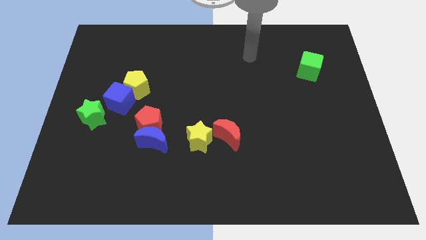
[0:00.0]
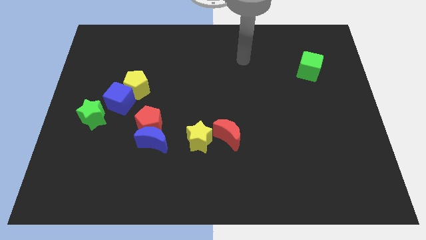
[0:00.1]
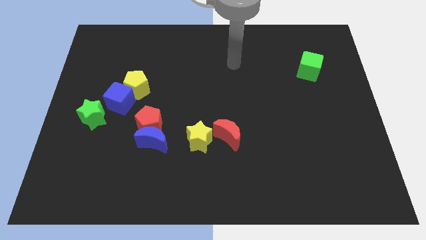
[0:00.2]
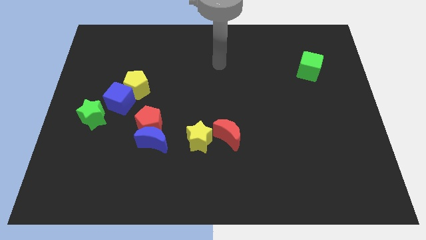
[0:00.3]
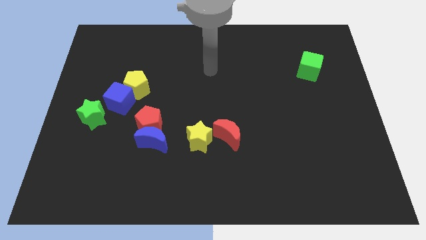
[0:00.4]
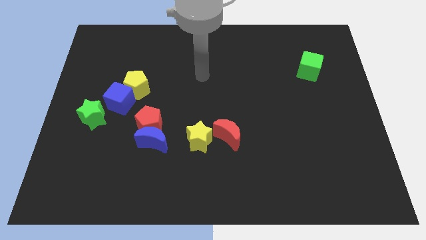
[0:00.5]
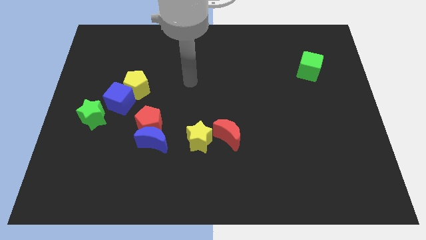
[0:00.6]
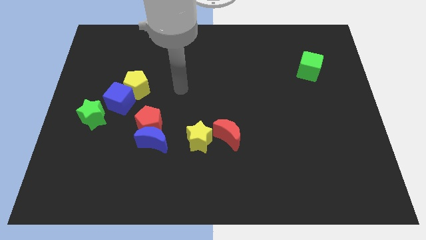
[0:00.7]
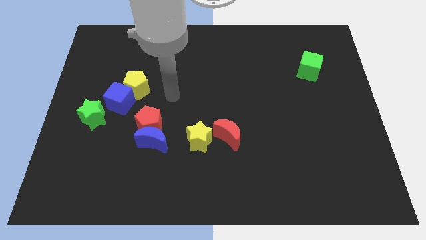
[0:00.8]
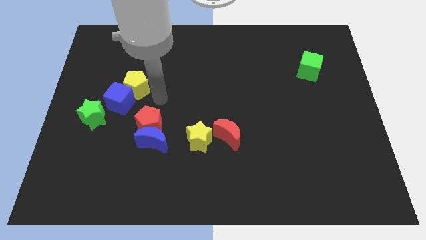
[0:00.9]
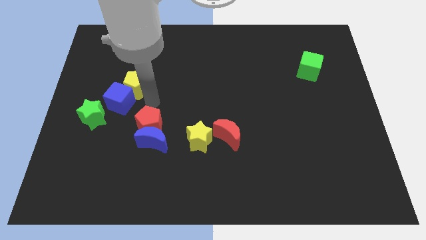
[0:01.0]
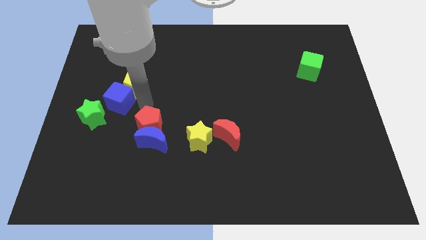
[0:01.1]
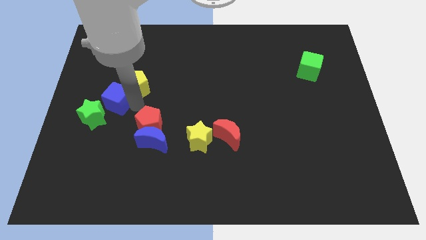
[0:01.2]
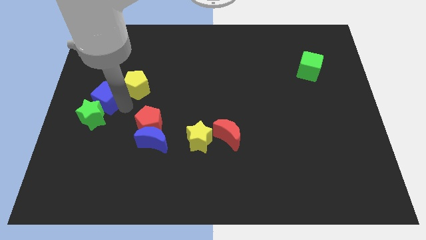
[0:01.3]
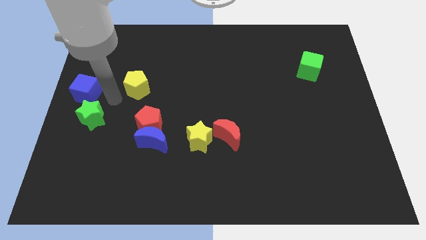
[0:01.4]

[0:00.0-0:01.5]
separate the yellow pentagon from the blue cube

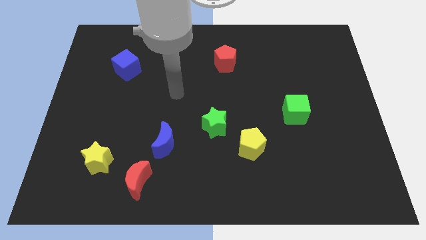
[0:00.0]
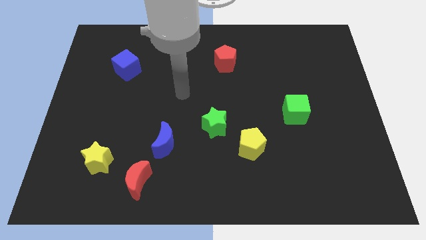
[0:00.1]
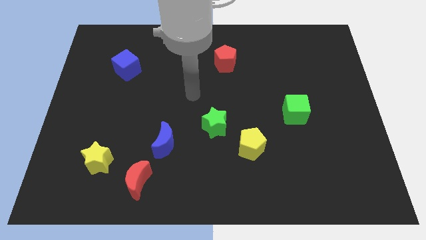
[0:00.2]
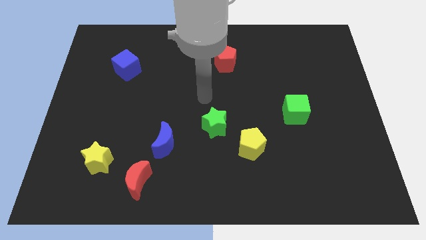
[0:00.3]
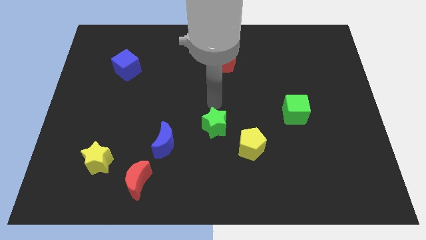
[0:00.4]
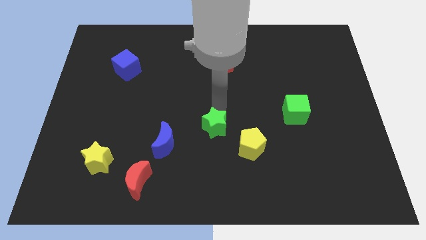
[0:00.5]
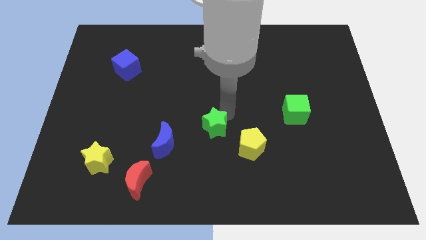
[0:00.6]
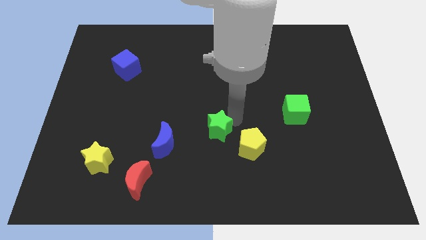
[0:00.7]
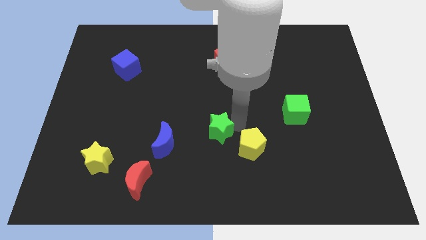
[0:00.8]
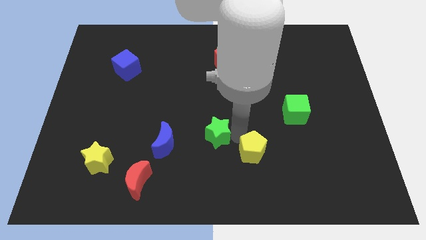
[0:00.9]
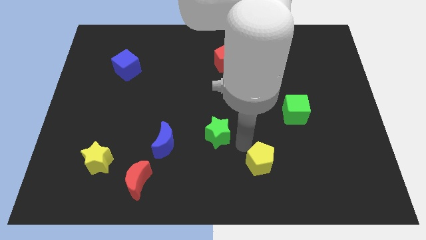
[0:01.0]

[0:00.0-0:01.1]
separate the green star from the yellow pentagon

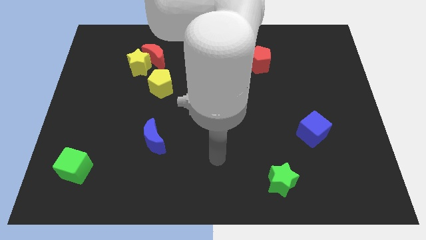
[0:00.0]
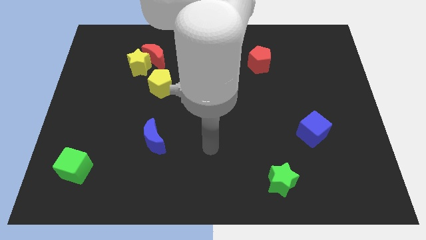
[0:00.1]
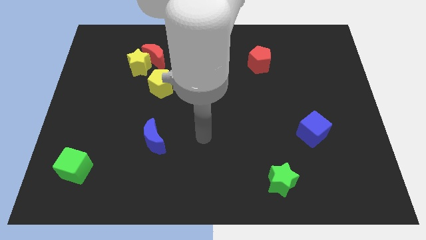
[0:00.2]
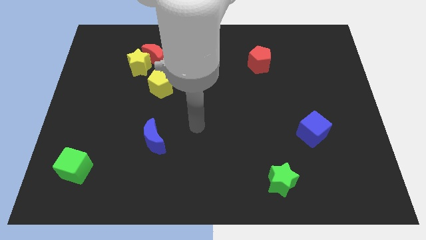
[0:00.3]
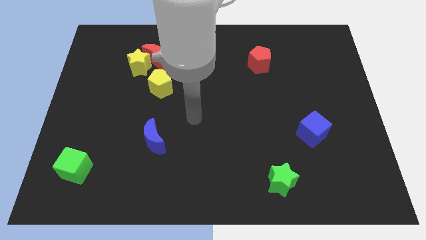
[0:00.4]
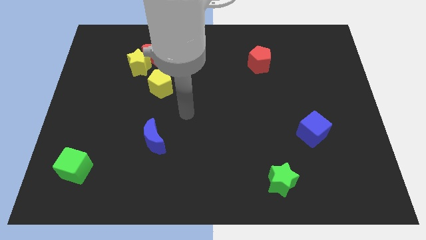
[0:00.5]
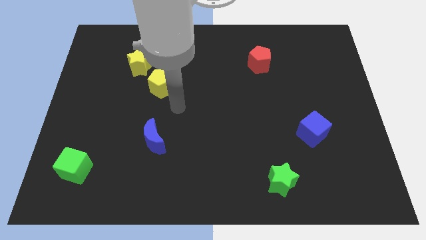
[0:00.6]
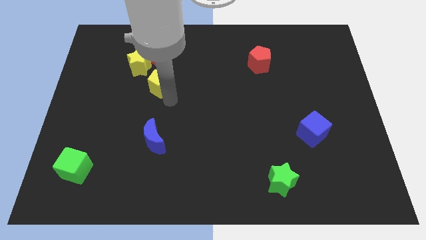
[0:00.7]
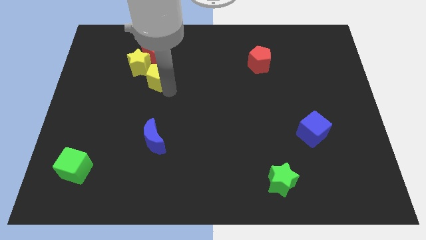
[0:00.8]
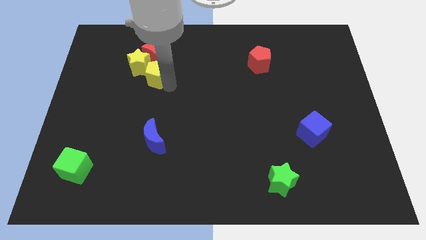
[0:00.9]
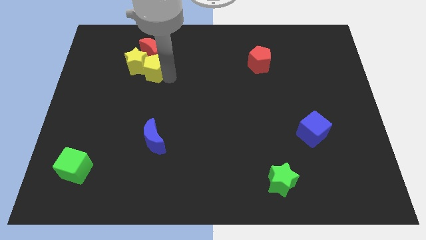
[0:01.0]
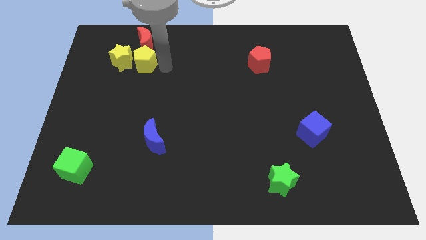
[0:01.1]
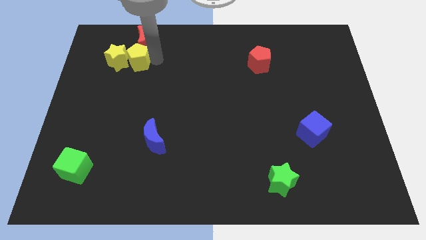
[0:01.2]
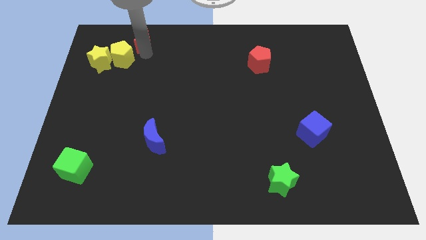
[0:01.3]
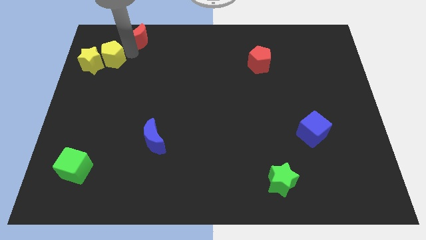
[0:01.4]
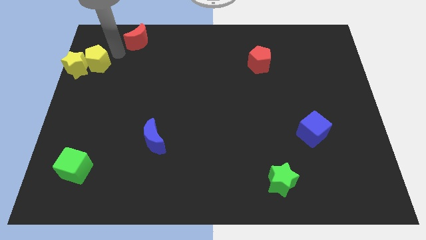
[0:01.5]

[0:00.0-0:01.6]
pull the yellow star apart from the red moon and yellow pentagon

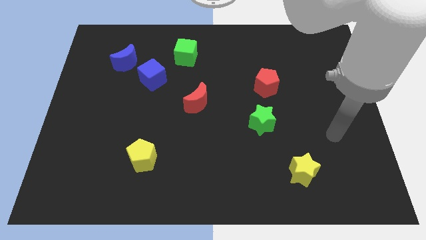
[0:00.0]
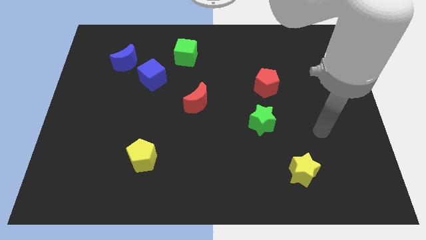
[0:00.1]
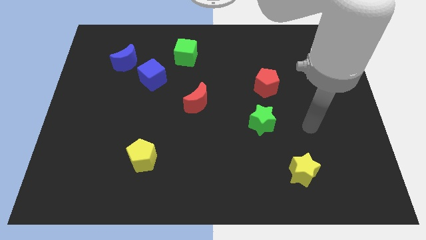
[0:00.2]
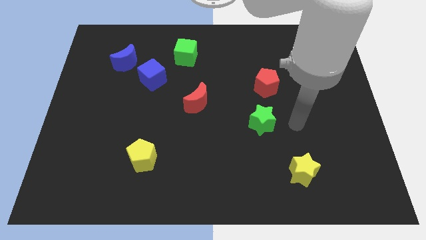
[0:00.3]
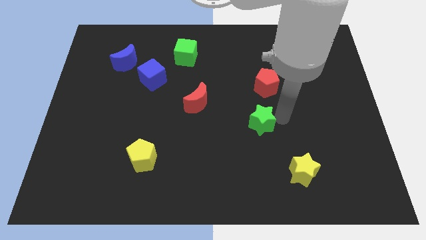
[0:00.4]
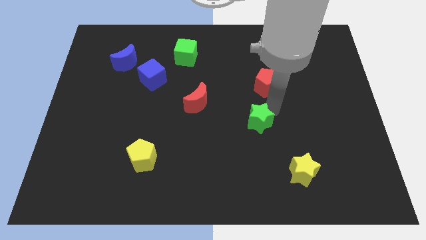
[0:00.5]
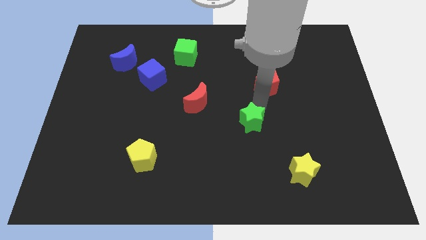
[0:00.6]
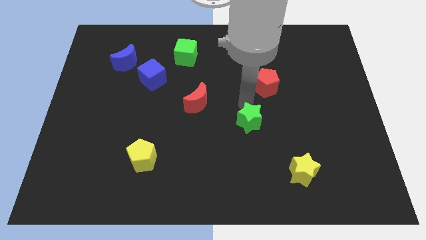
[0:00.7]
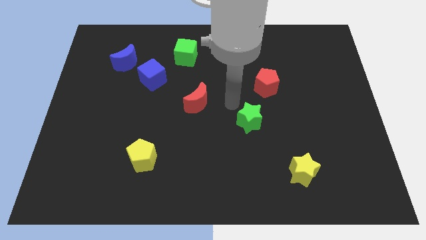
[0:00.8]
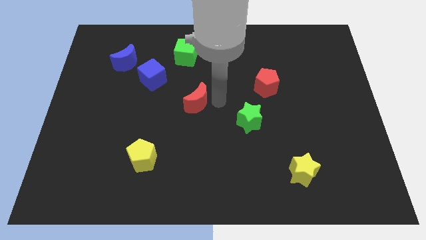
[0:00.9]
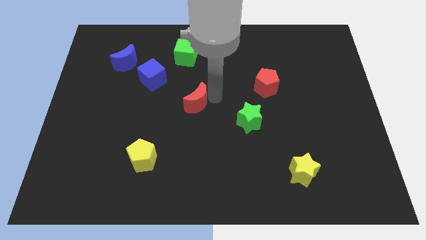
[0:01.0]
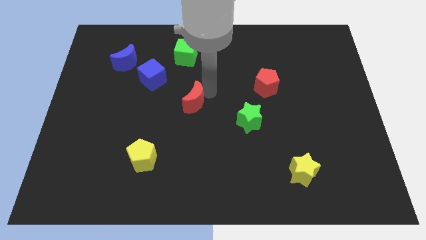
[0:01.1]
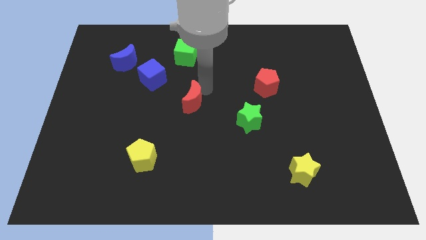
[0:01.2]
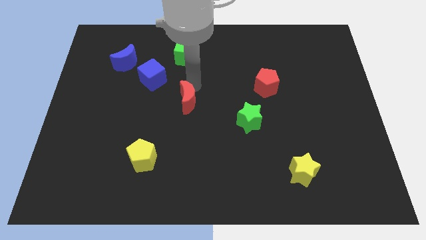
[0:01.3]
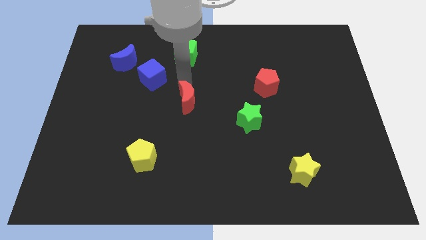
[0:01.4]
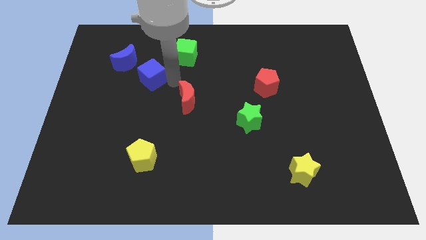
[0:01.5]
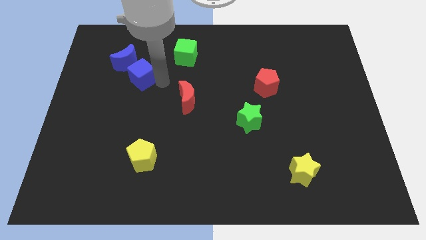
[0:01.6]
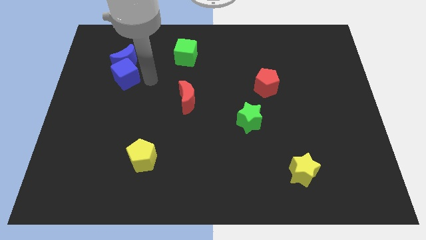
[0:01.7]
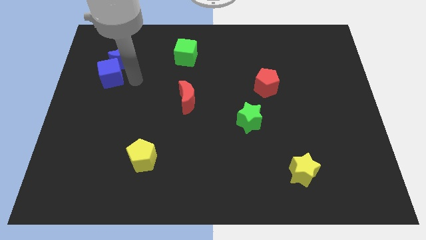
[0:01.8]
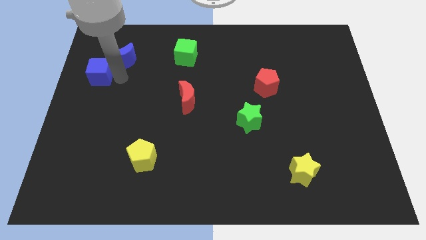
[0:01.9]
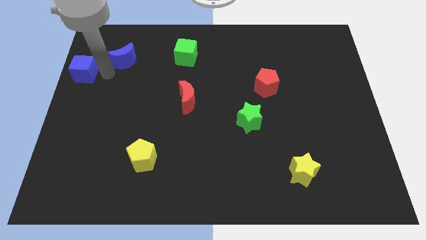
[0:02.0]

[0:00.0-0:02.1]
move the blue moon away from the blue cube

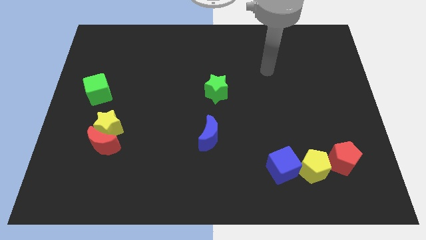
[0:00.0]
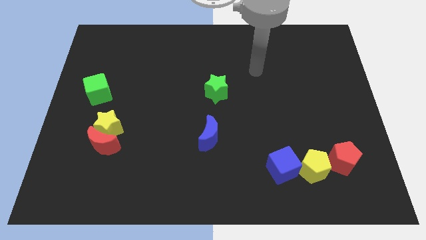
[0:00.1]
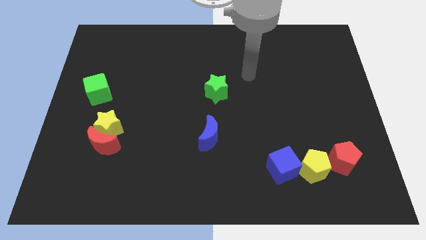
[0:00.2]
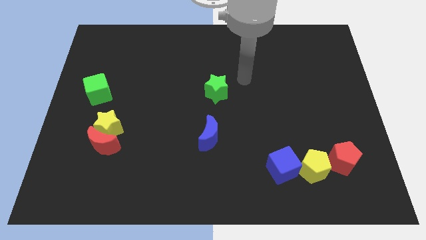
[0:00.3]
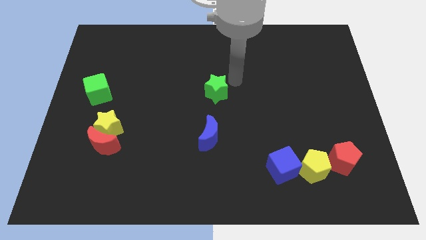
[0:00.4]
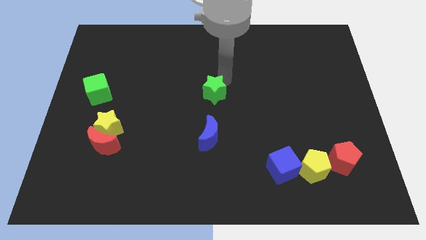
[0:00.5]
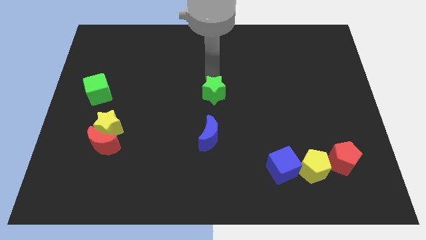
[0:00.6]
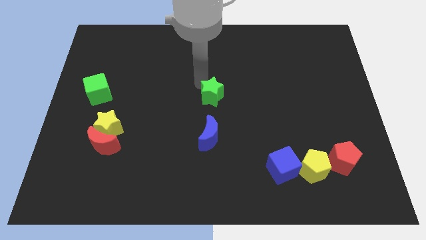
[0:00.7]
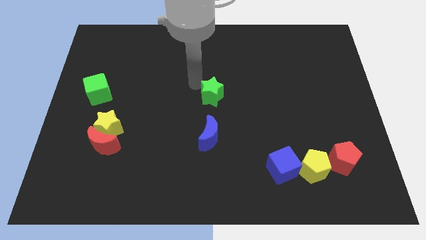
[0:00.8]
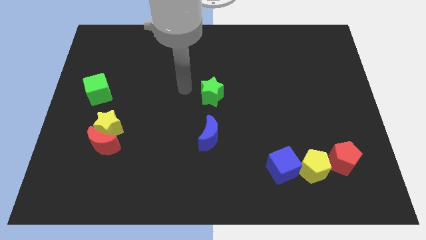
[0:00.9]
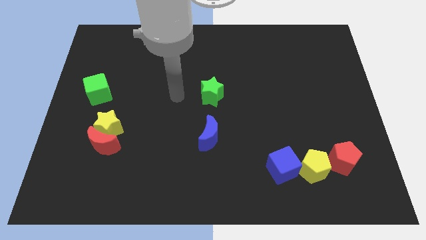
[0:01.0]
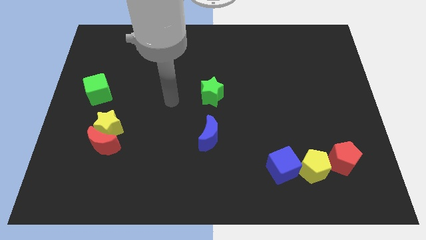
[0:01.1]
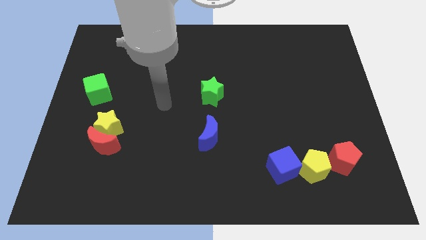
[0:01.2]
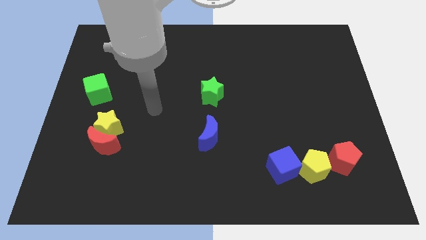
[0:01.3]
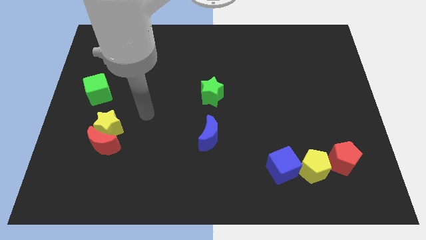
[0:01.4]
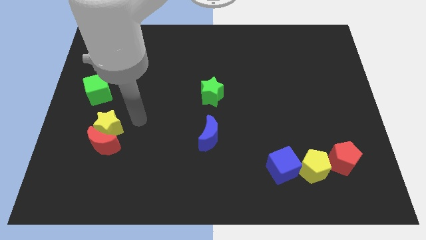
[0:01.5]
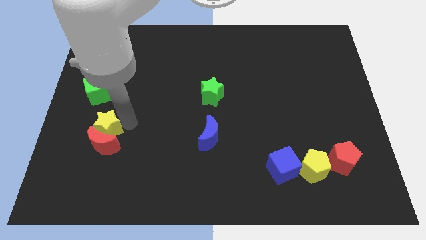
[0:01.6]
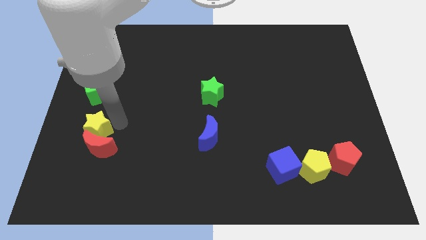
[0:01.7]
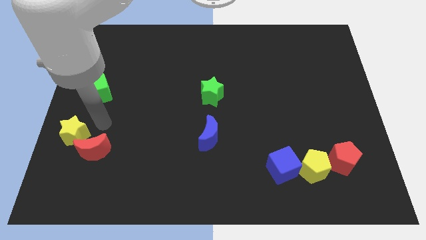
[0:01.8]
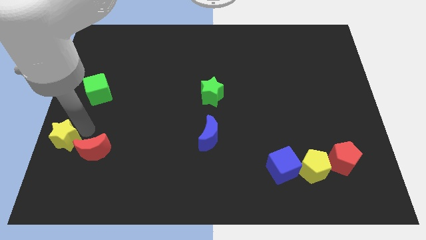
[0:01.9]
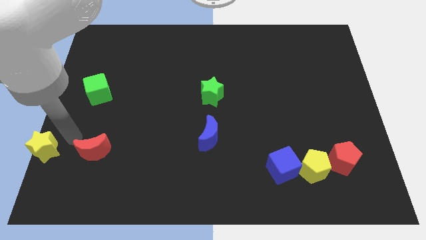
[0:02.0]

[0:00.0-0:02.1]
move the red moon away from the yellow star

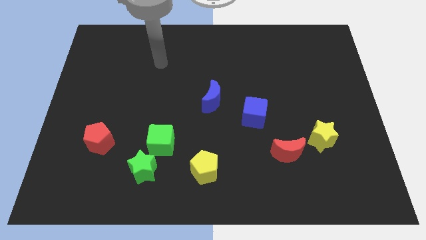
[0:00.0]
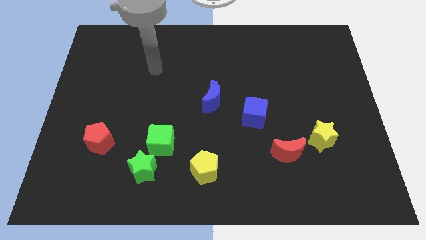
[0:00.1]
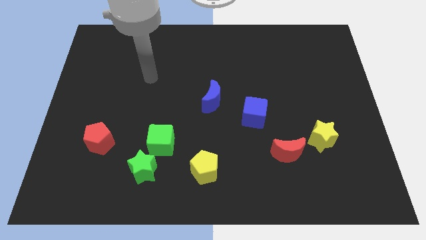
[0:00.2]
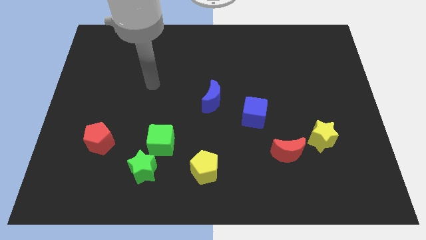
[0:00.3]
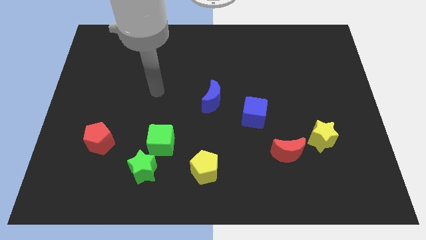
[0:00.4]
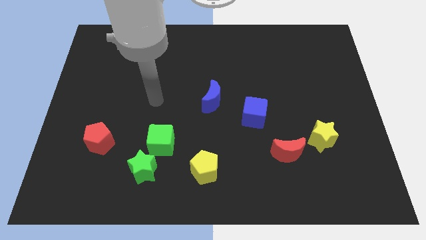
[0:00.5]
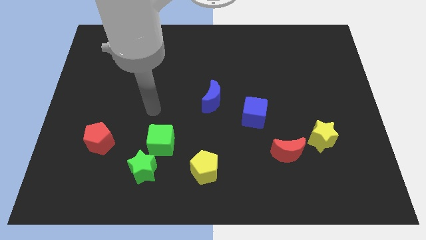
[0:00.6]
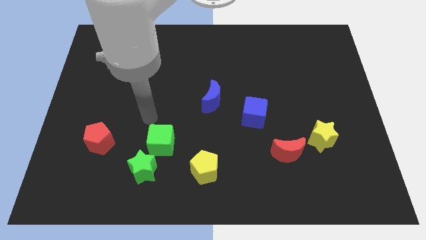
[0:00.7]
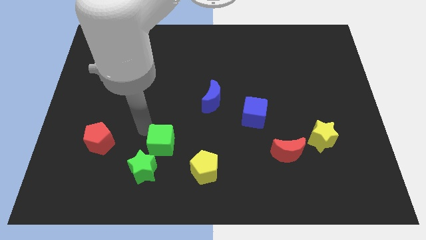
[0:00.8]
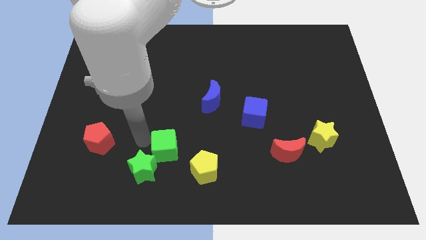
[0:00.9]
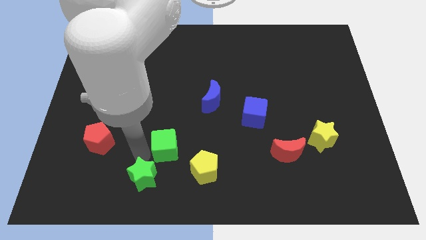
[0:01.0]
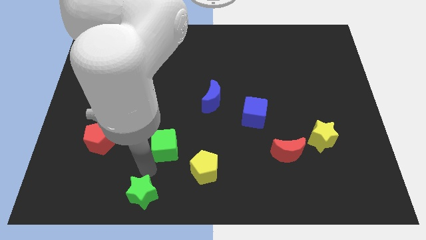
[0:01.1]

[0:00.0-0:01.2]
separate the green cube from the green star
